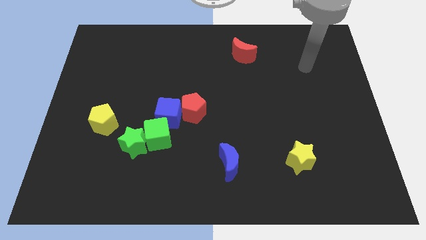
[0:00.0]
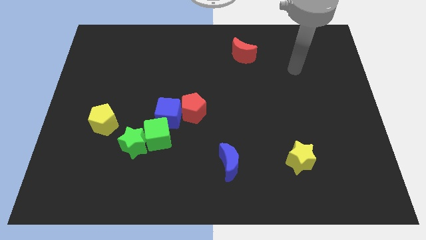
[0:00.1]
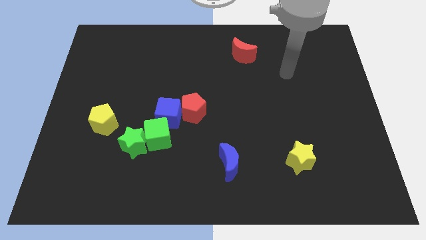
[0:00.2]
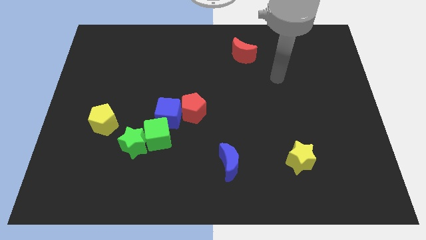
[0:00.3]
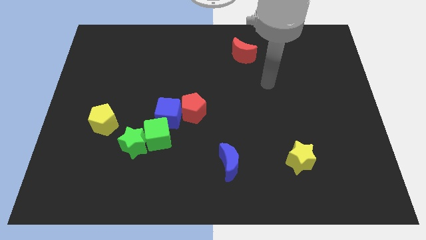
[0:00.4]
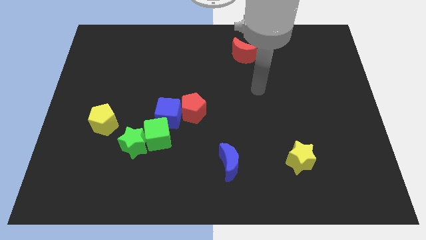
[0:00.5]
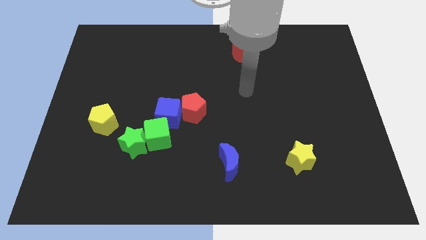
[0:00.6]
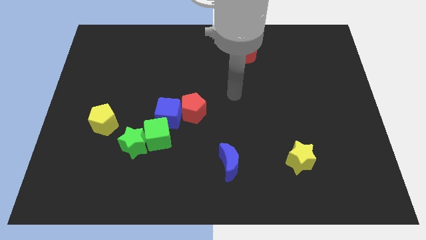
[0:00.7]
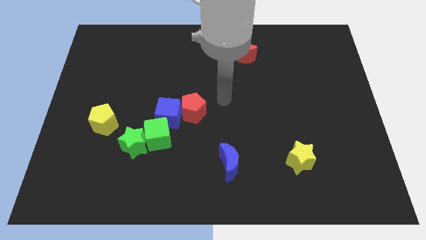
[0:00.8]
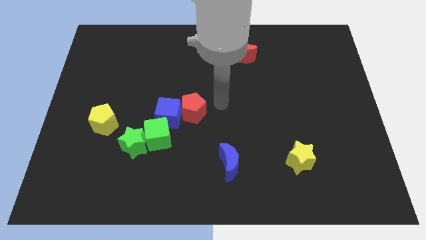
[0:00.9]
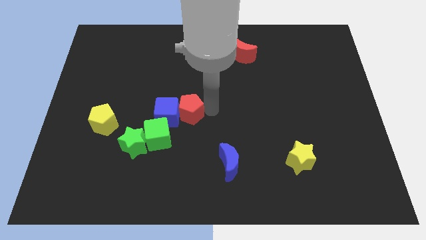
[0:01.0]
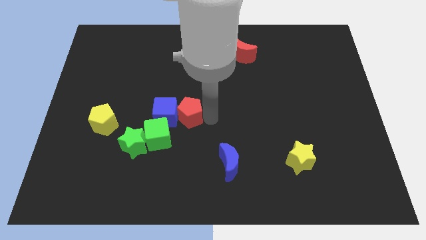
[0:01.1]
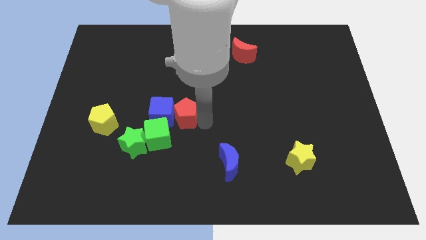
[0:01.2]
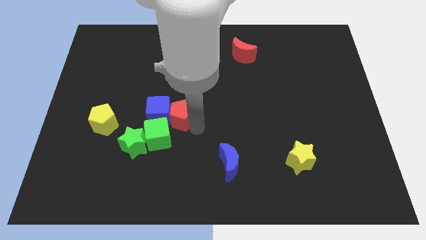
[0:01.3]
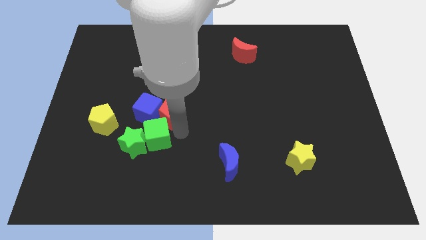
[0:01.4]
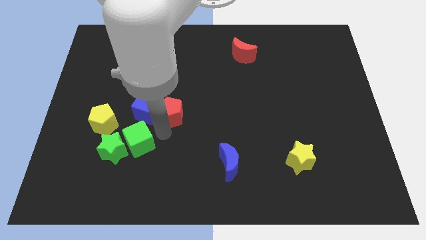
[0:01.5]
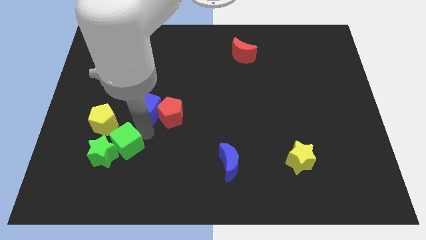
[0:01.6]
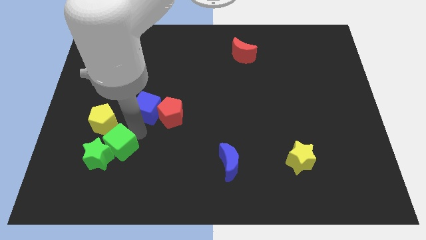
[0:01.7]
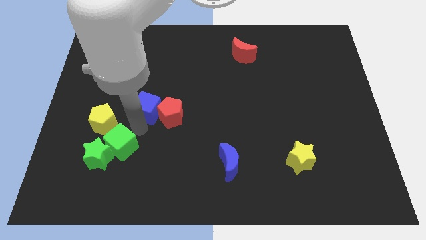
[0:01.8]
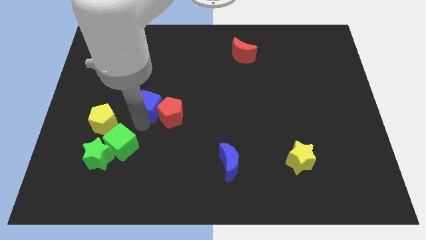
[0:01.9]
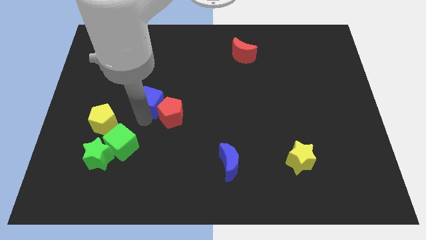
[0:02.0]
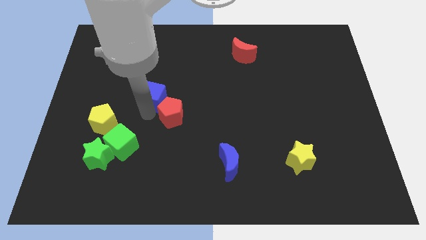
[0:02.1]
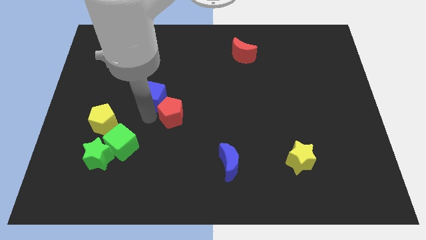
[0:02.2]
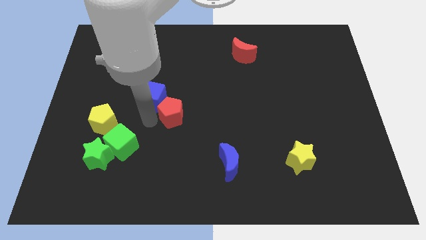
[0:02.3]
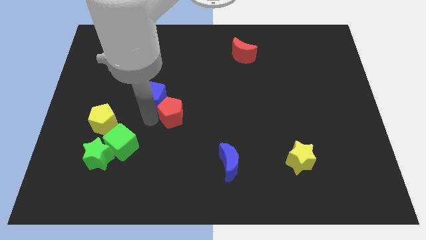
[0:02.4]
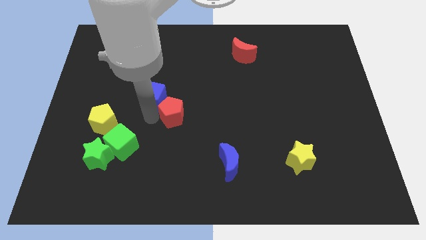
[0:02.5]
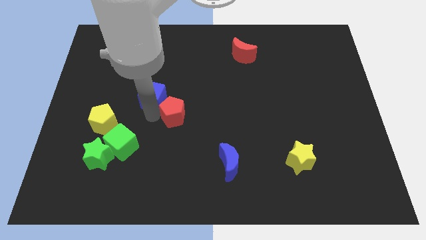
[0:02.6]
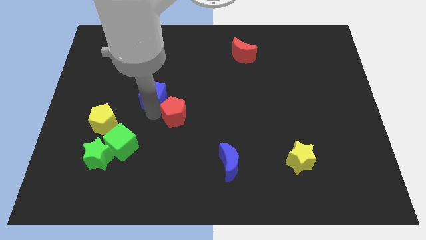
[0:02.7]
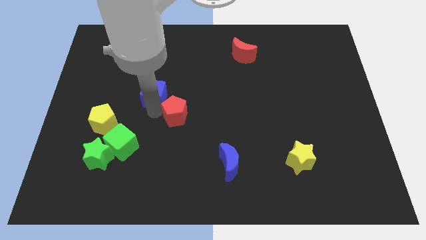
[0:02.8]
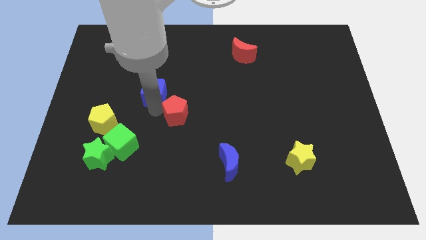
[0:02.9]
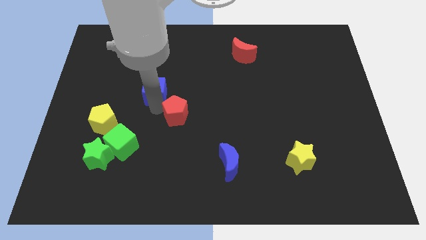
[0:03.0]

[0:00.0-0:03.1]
move the blue cube away from the red pentagon and green cube

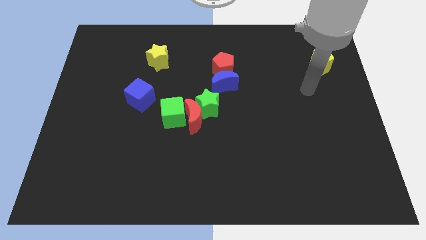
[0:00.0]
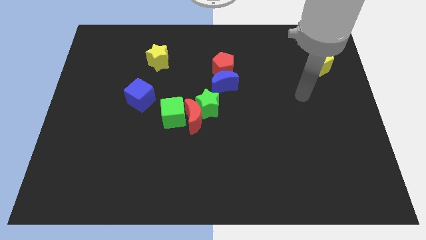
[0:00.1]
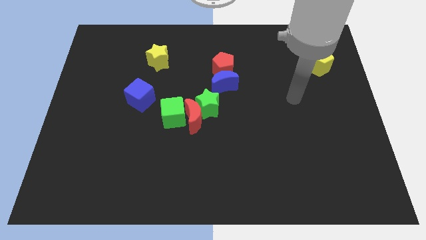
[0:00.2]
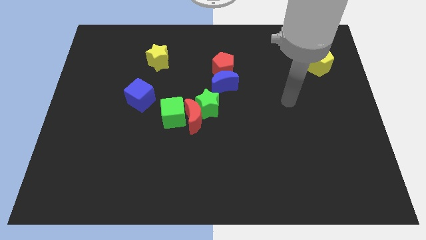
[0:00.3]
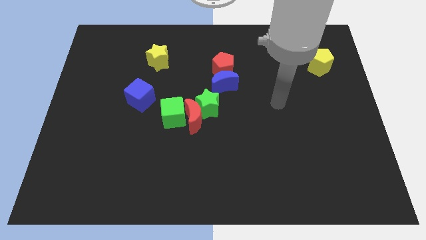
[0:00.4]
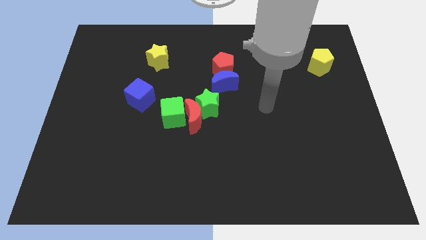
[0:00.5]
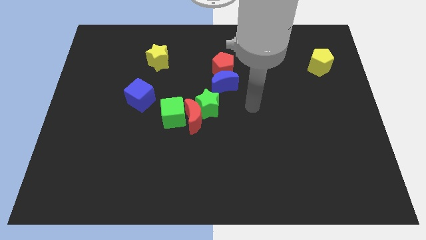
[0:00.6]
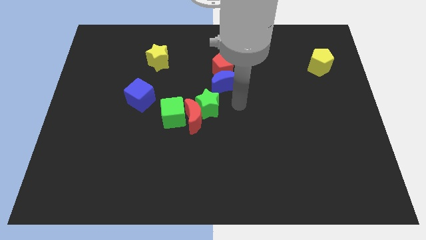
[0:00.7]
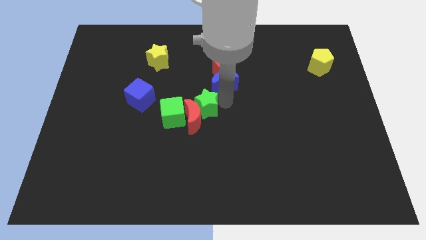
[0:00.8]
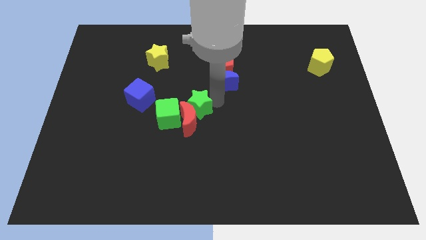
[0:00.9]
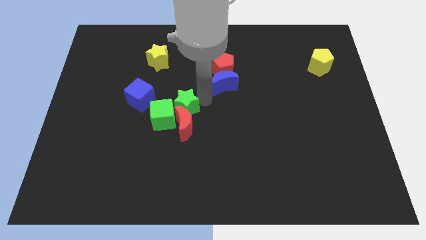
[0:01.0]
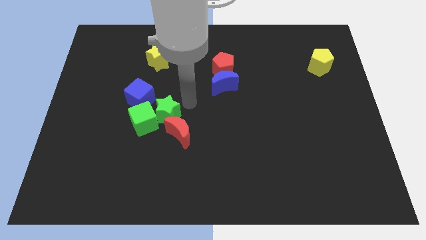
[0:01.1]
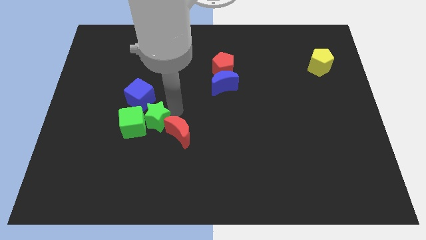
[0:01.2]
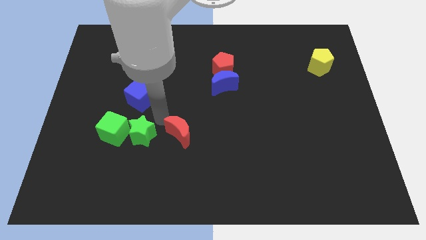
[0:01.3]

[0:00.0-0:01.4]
separate the red moon from the green star and green cube

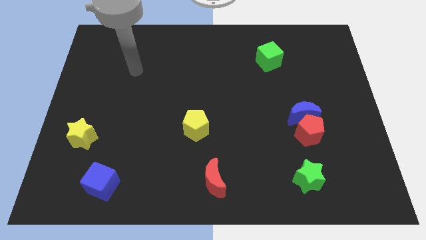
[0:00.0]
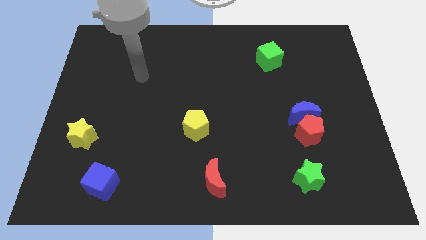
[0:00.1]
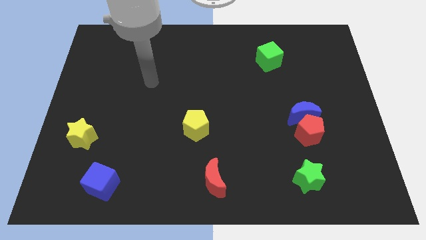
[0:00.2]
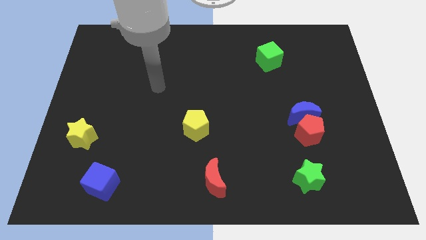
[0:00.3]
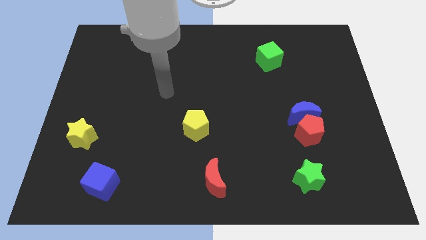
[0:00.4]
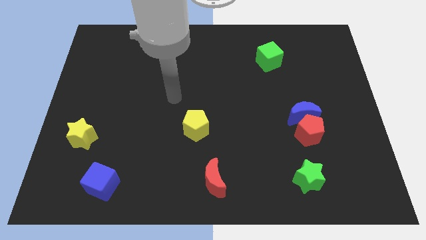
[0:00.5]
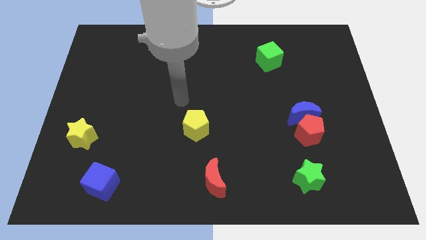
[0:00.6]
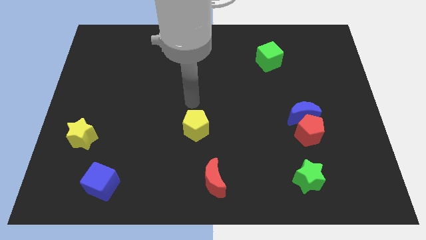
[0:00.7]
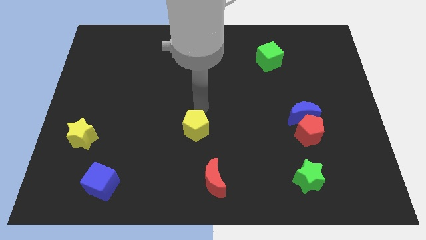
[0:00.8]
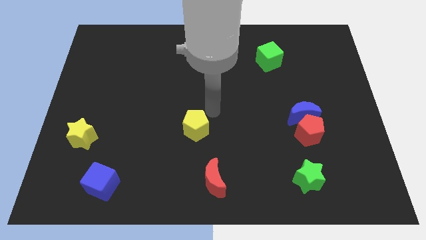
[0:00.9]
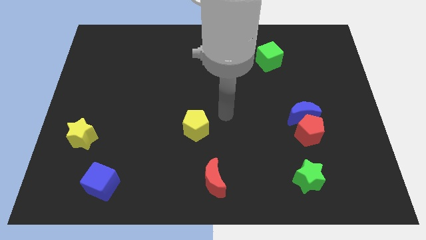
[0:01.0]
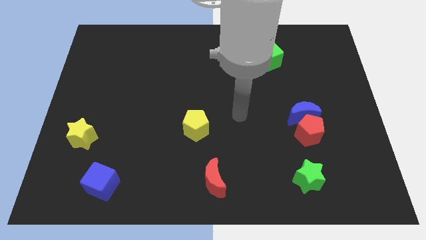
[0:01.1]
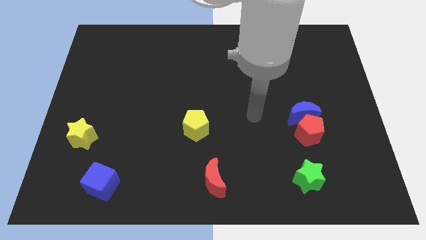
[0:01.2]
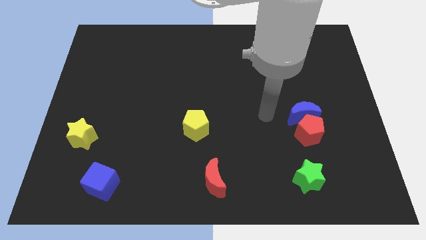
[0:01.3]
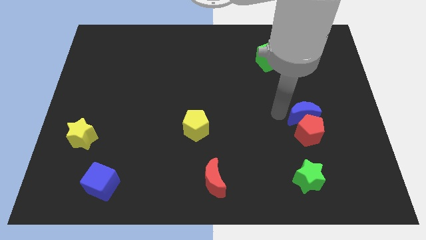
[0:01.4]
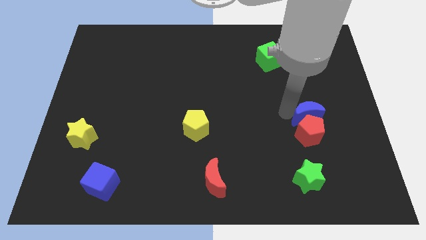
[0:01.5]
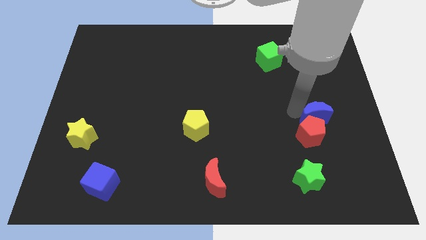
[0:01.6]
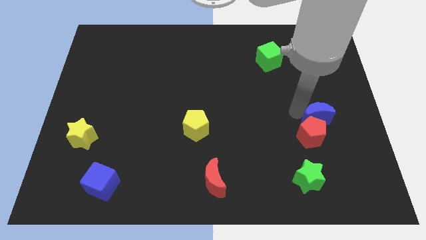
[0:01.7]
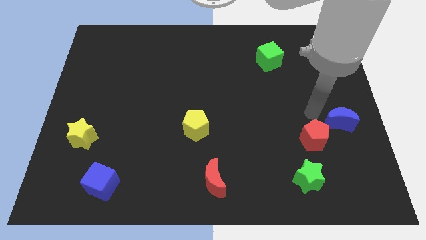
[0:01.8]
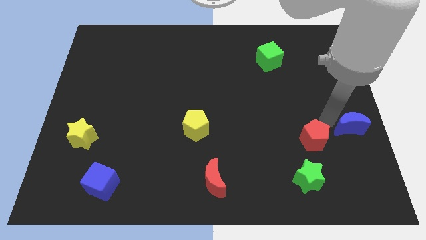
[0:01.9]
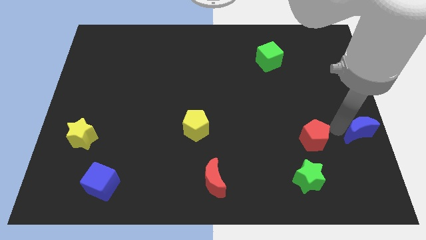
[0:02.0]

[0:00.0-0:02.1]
pull the red pentagon apart from the blue moon

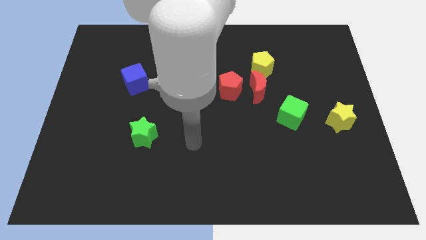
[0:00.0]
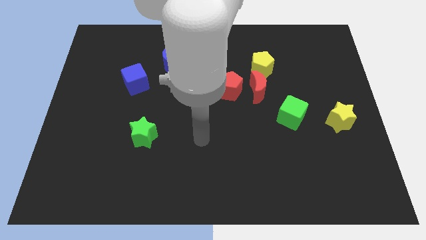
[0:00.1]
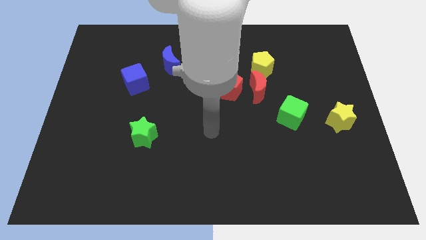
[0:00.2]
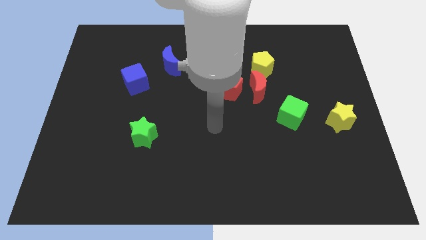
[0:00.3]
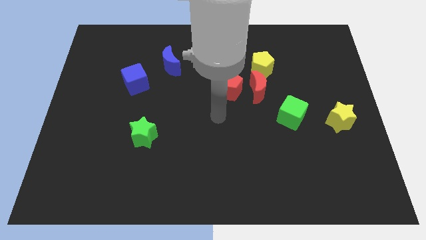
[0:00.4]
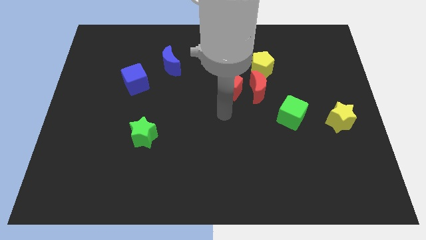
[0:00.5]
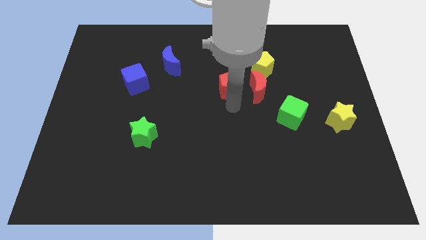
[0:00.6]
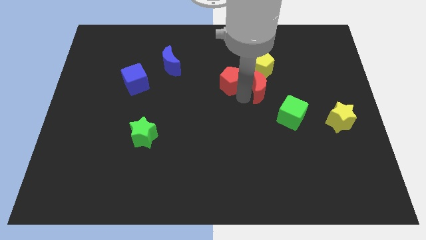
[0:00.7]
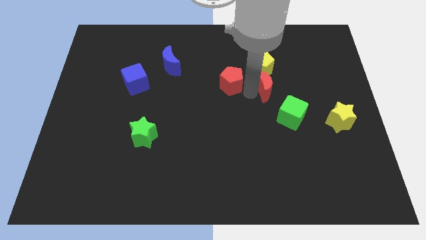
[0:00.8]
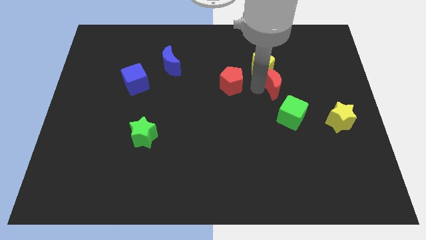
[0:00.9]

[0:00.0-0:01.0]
separate the red pentagon from the red moon

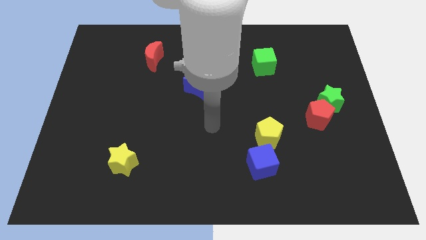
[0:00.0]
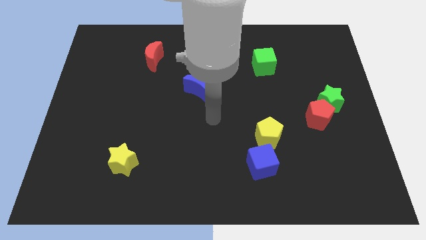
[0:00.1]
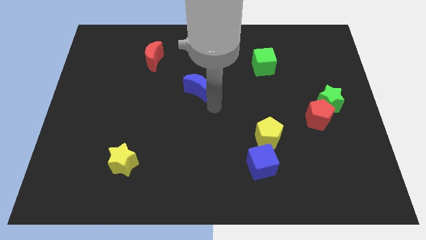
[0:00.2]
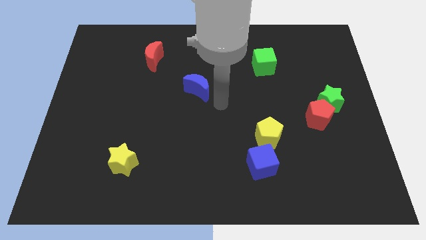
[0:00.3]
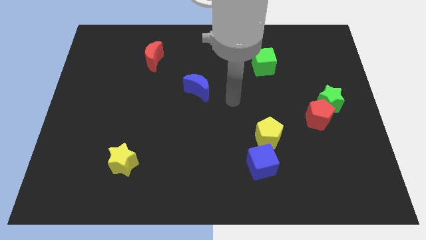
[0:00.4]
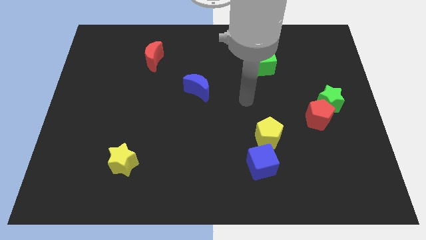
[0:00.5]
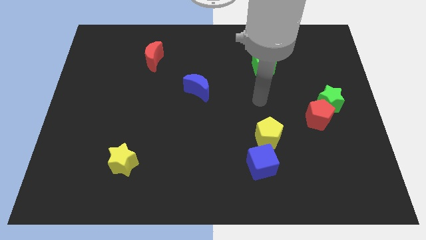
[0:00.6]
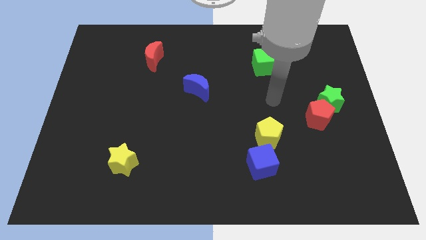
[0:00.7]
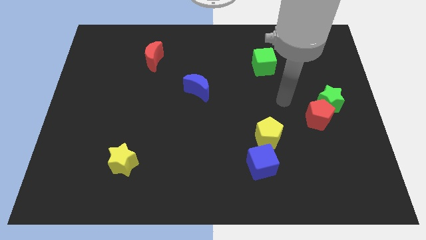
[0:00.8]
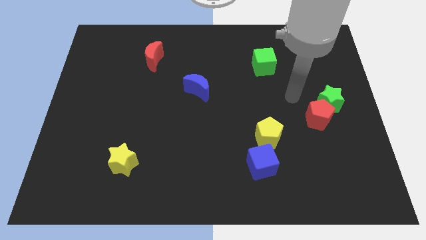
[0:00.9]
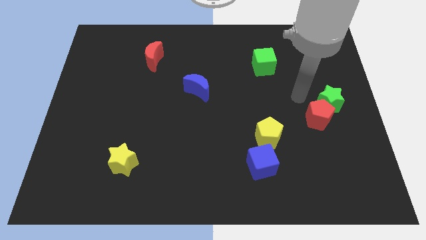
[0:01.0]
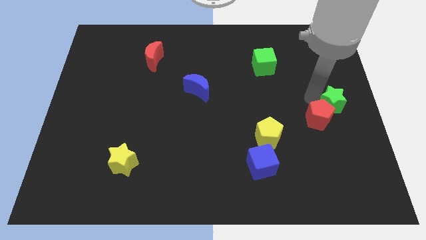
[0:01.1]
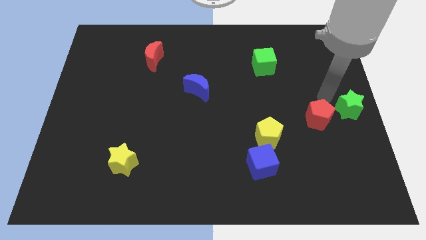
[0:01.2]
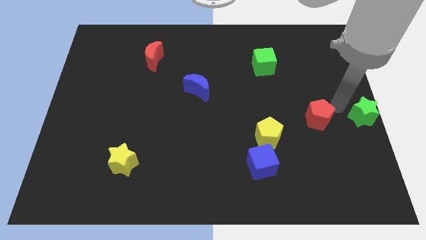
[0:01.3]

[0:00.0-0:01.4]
move the red pentagon away from the green star

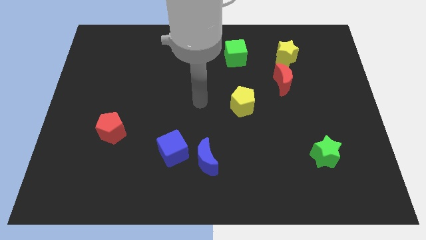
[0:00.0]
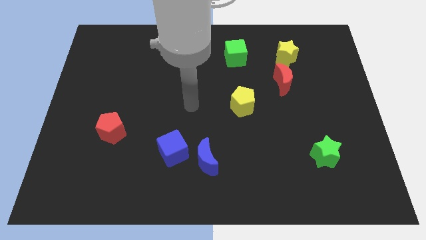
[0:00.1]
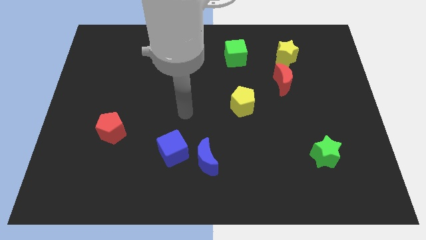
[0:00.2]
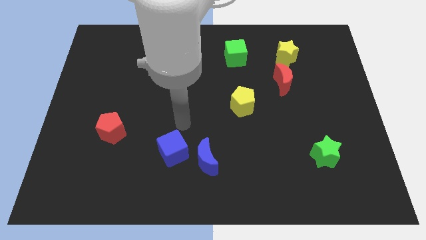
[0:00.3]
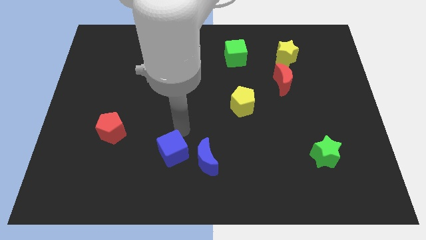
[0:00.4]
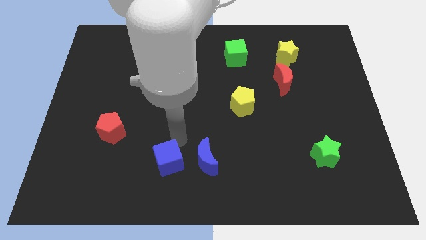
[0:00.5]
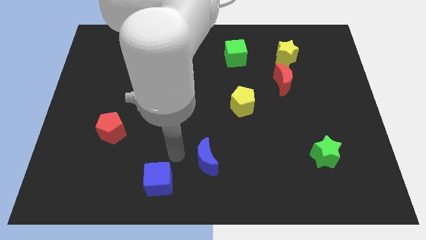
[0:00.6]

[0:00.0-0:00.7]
pull the blue moon apart from the blue cube
